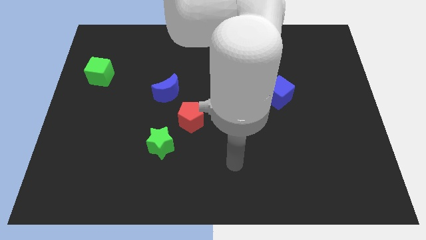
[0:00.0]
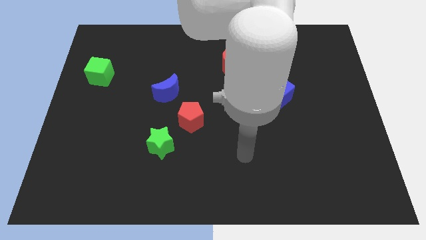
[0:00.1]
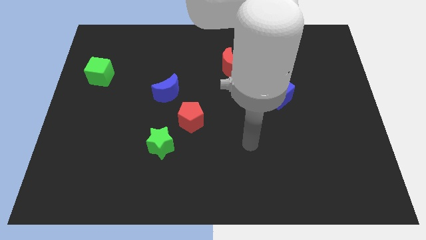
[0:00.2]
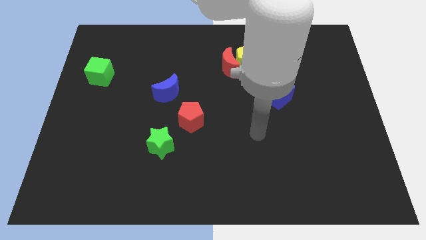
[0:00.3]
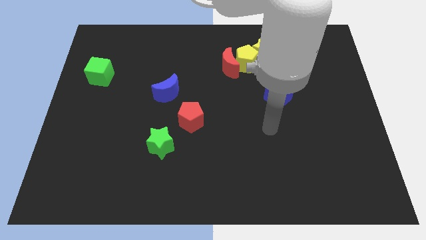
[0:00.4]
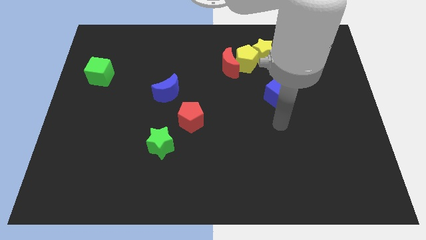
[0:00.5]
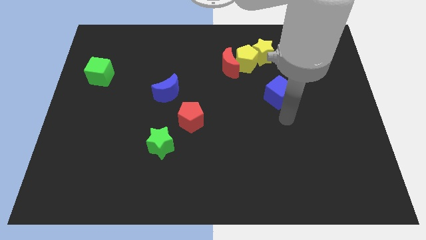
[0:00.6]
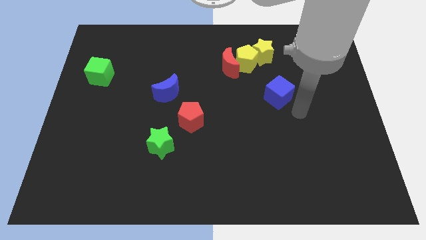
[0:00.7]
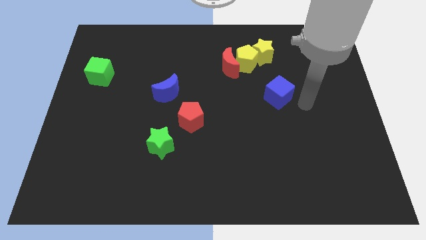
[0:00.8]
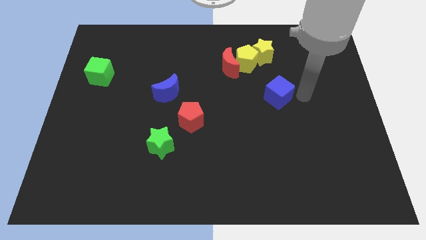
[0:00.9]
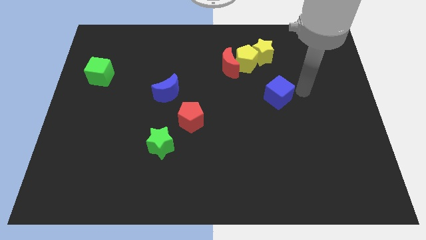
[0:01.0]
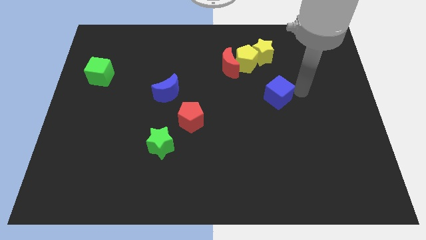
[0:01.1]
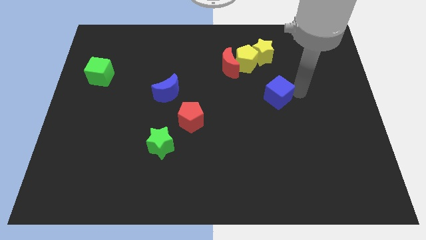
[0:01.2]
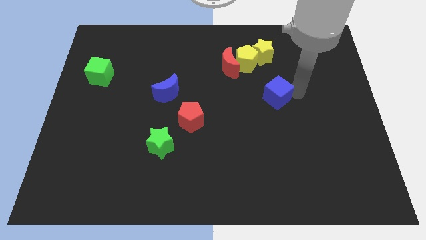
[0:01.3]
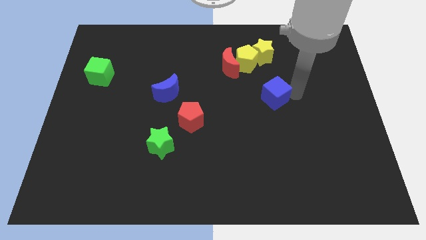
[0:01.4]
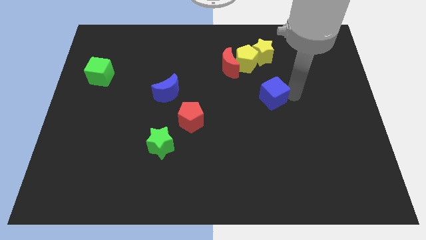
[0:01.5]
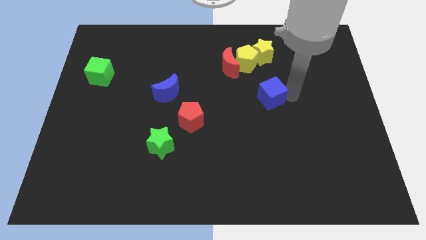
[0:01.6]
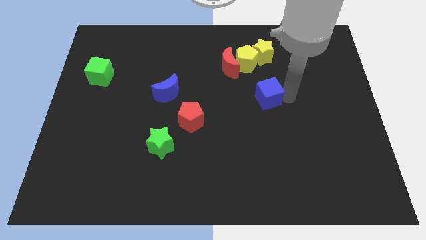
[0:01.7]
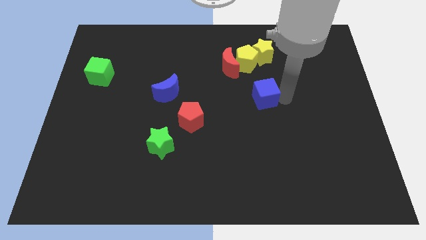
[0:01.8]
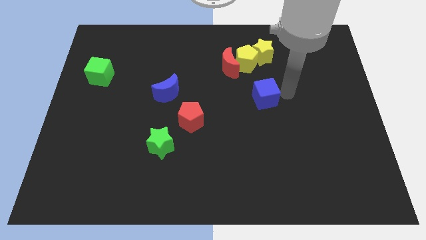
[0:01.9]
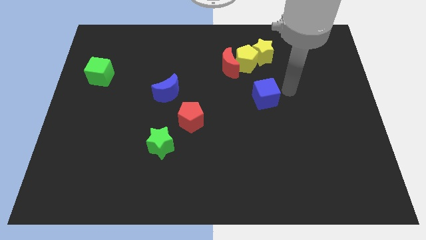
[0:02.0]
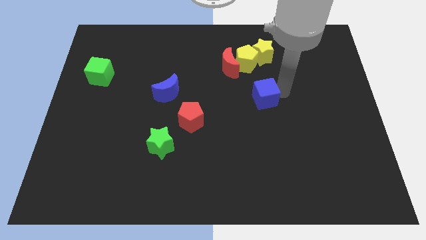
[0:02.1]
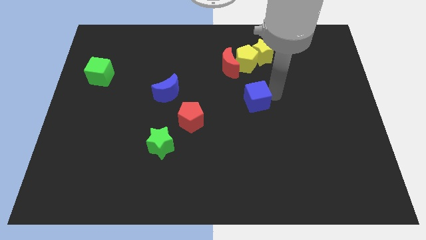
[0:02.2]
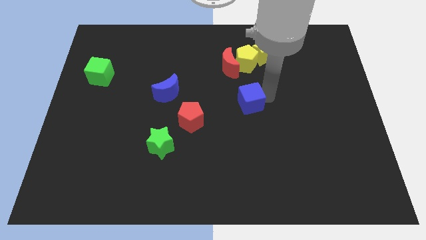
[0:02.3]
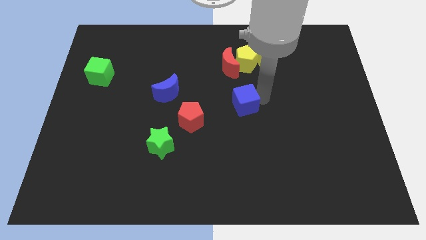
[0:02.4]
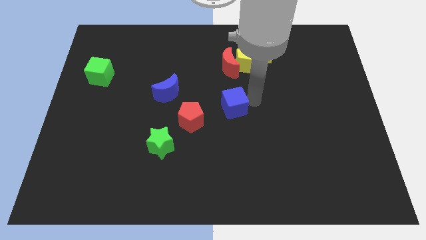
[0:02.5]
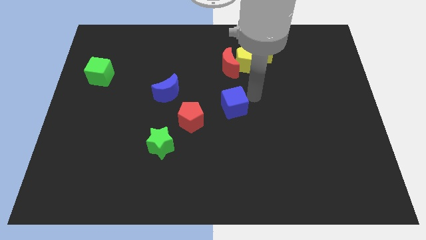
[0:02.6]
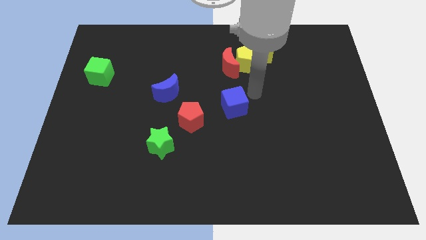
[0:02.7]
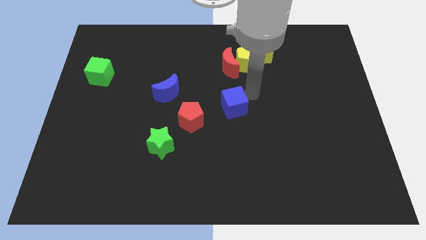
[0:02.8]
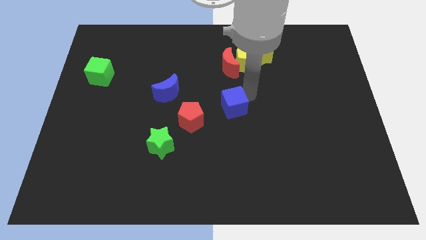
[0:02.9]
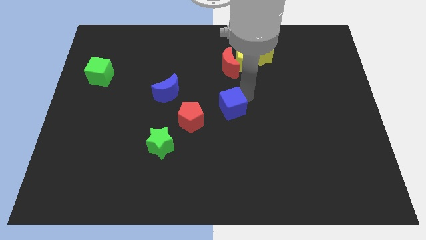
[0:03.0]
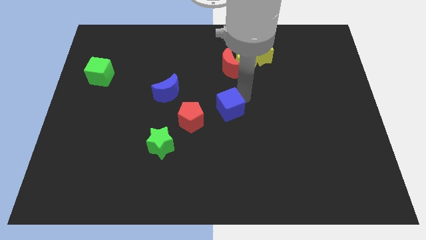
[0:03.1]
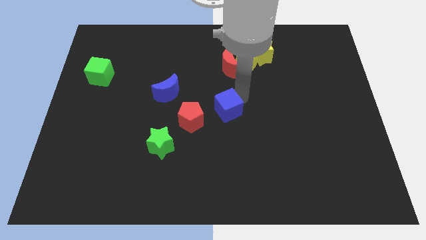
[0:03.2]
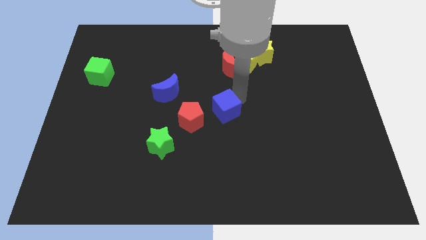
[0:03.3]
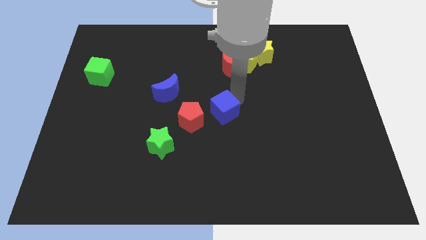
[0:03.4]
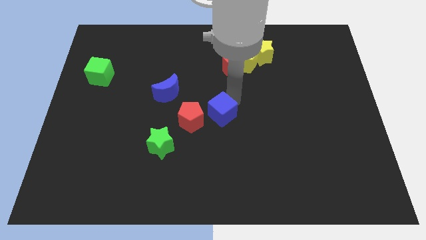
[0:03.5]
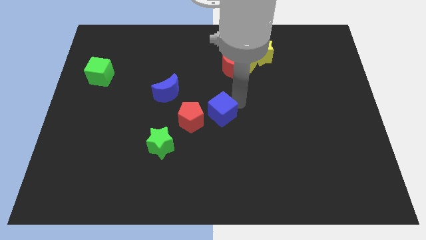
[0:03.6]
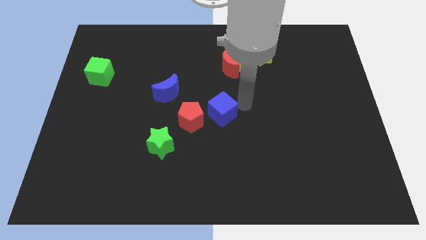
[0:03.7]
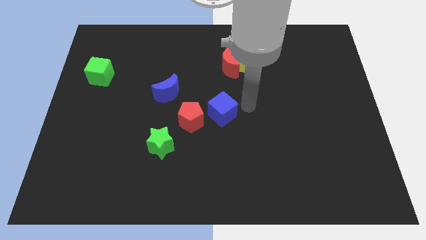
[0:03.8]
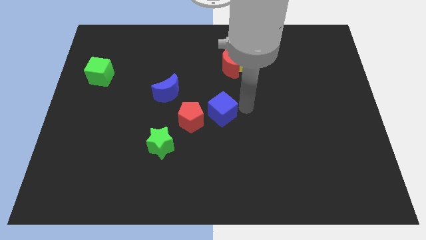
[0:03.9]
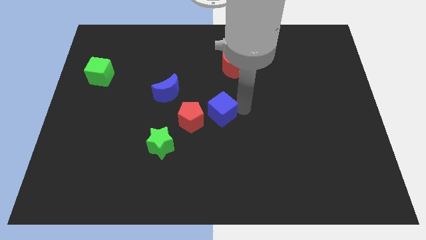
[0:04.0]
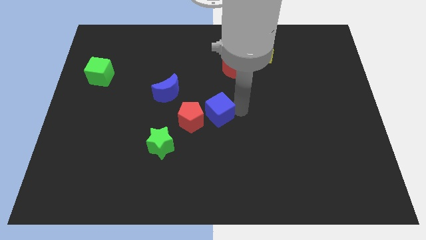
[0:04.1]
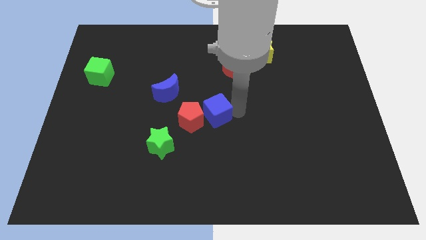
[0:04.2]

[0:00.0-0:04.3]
push the blue cube to the red pentagon

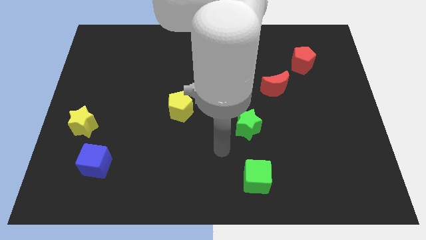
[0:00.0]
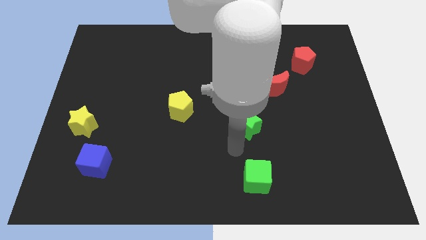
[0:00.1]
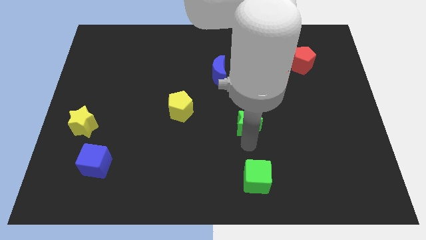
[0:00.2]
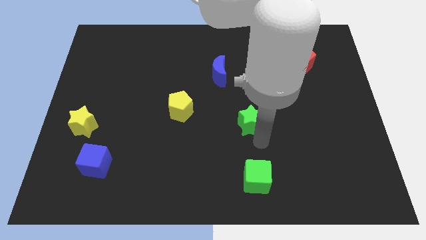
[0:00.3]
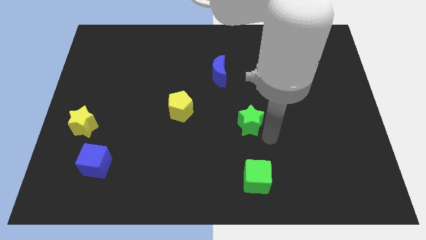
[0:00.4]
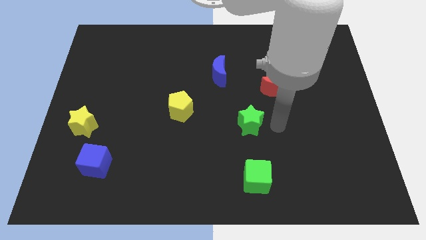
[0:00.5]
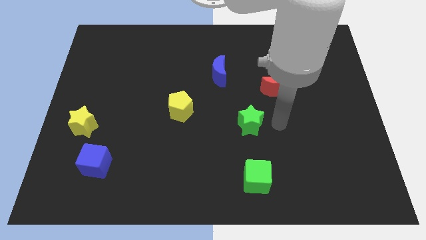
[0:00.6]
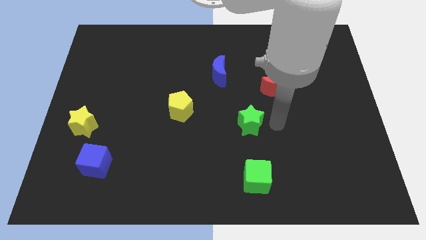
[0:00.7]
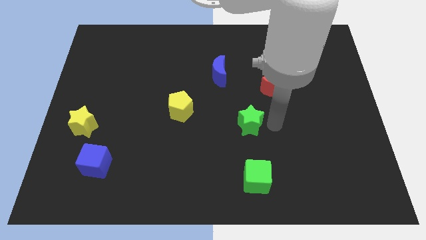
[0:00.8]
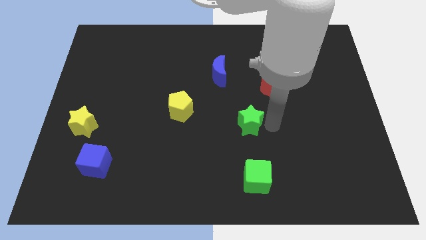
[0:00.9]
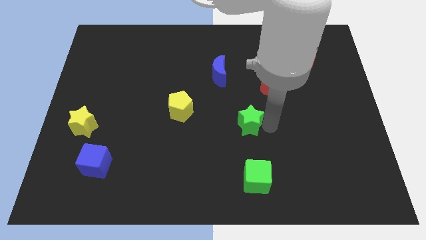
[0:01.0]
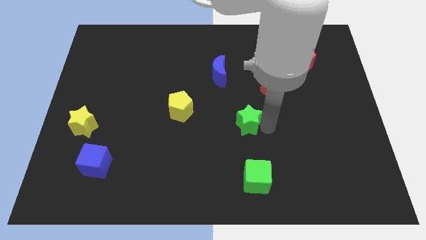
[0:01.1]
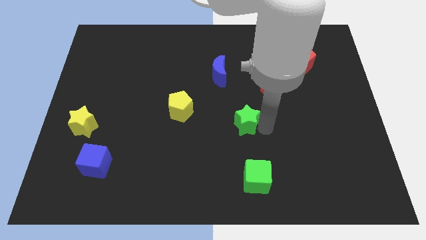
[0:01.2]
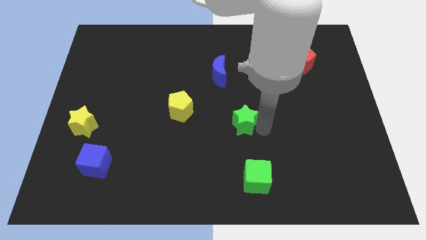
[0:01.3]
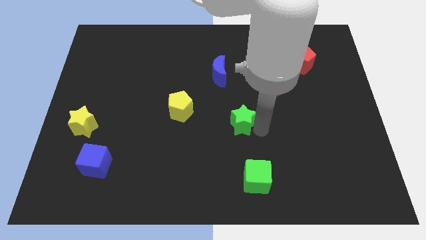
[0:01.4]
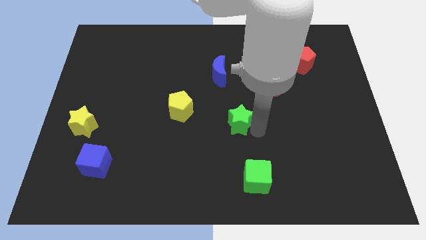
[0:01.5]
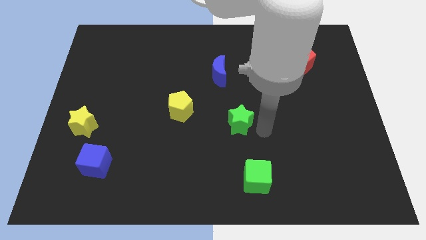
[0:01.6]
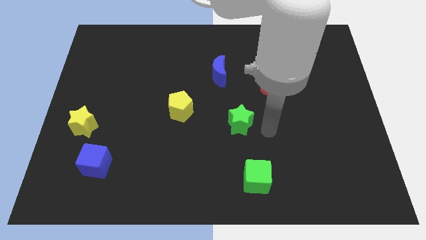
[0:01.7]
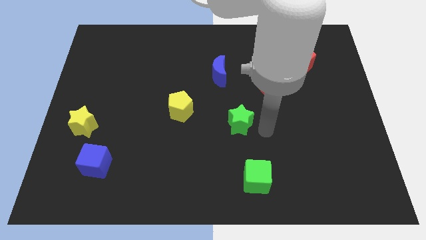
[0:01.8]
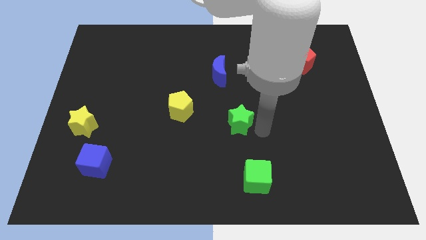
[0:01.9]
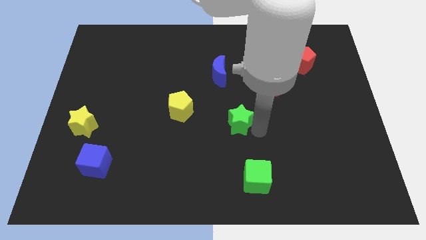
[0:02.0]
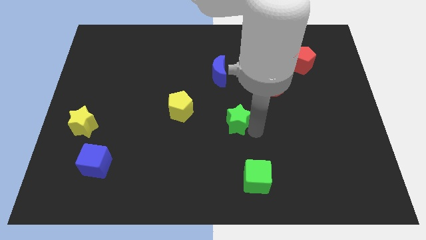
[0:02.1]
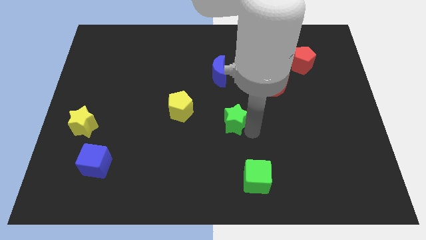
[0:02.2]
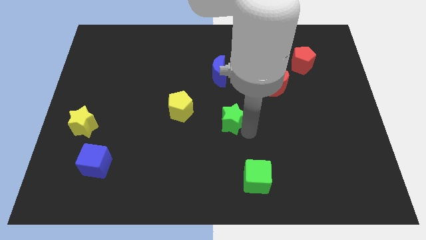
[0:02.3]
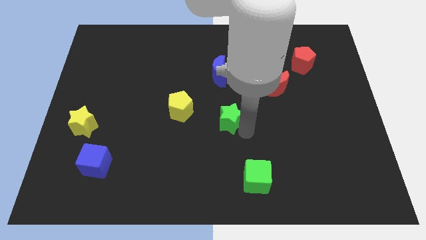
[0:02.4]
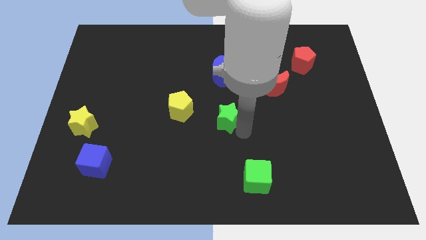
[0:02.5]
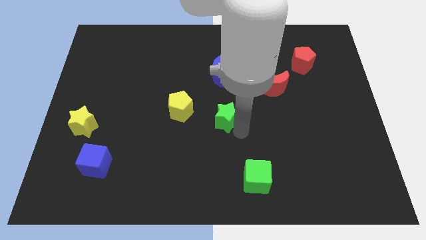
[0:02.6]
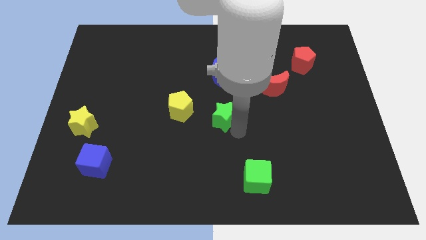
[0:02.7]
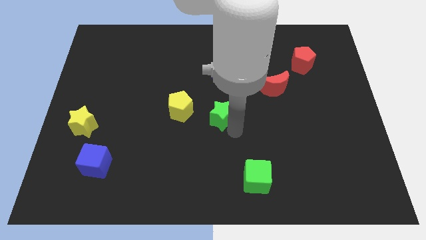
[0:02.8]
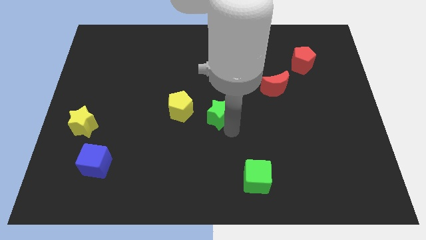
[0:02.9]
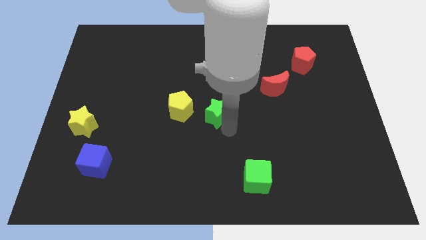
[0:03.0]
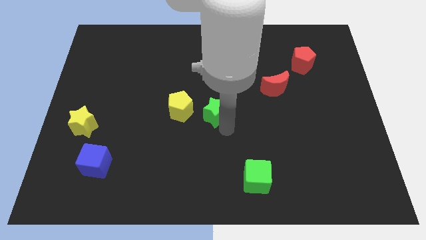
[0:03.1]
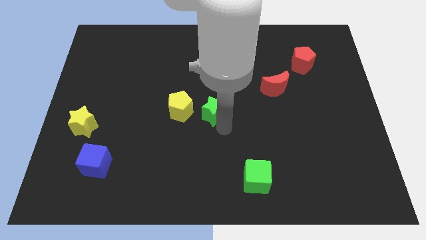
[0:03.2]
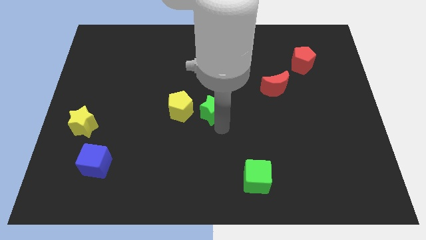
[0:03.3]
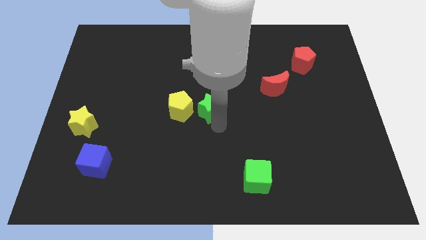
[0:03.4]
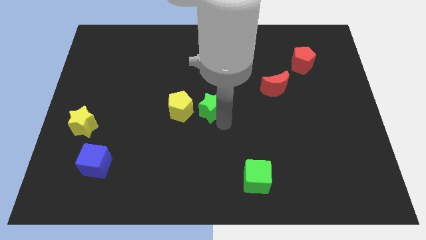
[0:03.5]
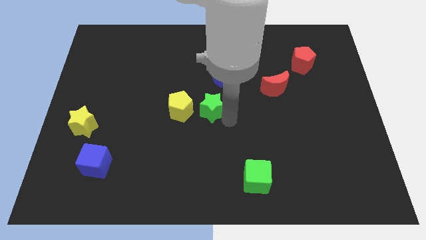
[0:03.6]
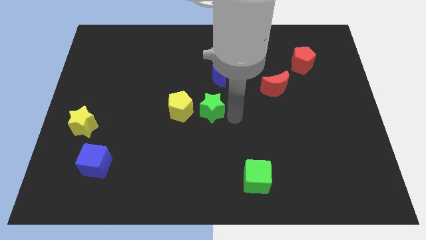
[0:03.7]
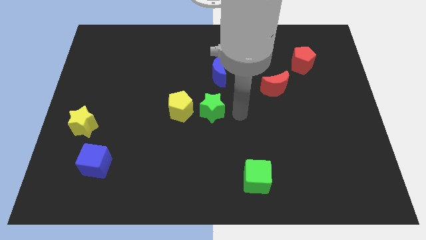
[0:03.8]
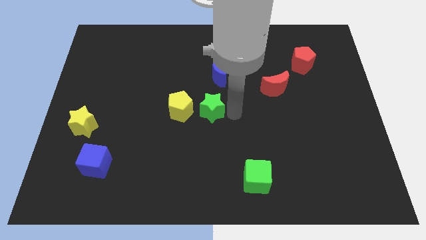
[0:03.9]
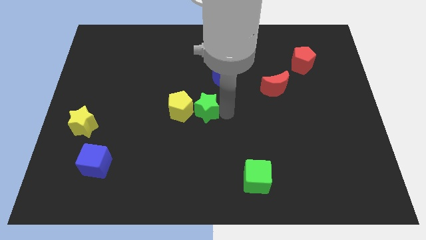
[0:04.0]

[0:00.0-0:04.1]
move the green star towards the yellow pentagon
